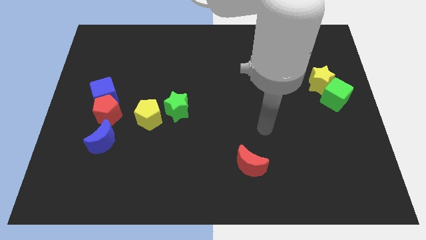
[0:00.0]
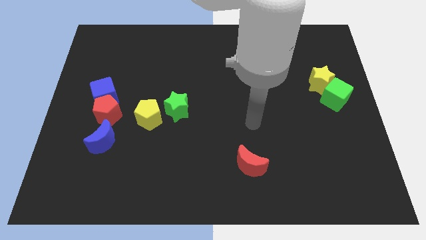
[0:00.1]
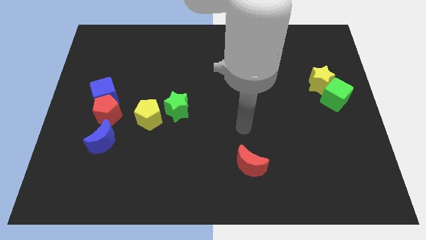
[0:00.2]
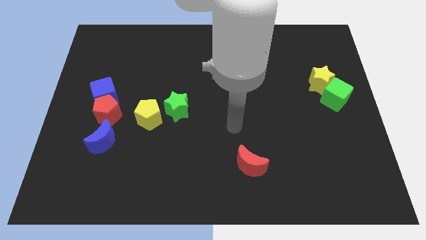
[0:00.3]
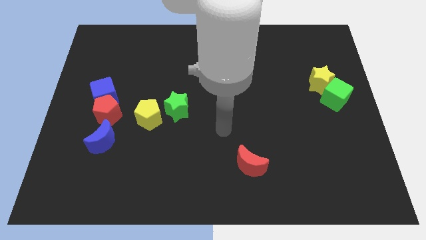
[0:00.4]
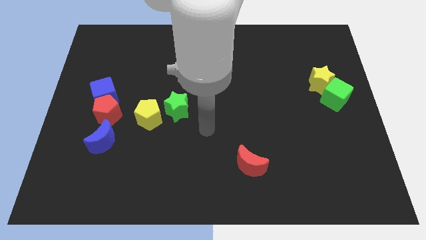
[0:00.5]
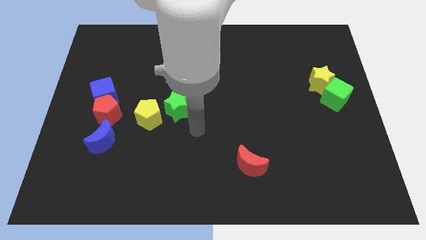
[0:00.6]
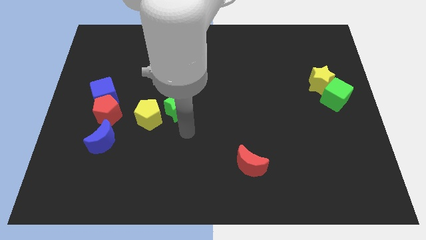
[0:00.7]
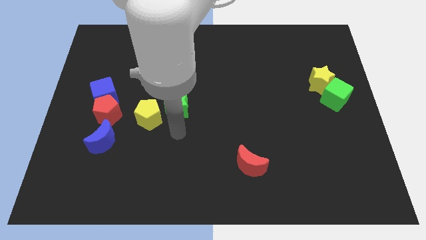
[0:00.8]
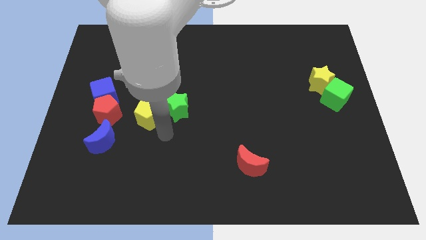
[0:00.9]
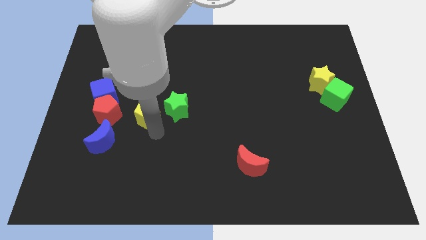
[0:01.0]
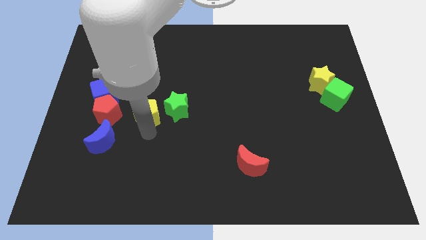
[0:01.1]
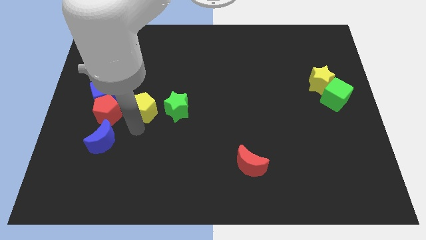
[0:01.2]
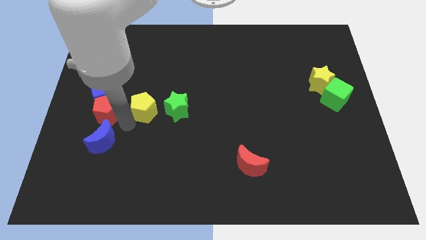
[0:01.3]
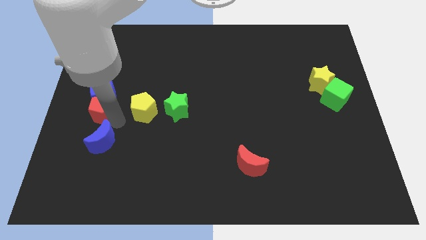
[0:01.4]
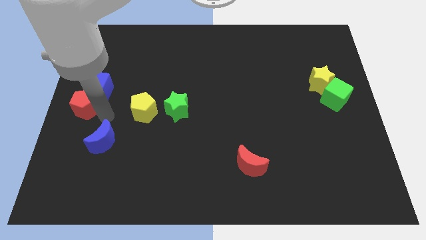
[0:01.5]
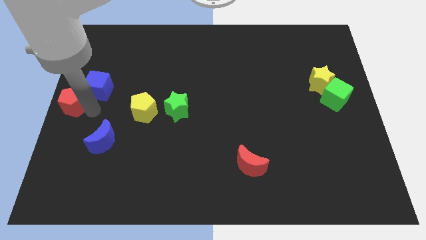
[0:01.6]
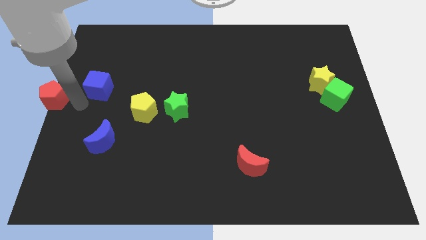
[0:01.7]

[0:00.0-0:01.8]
pull the blue cube apart from the red pentagon

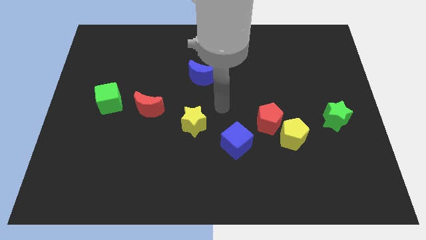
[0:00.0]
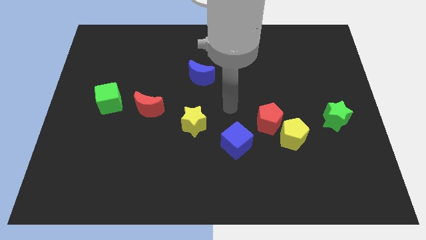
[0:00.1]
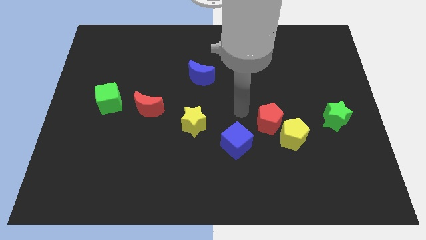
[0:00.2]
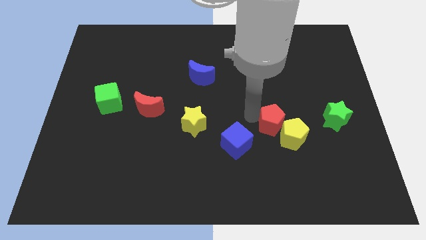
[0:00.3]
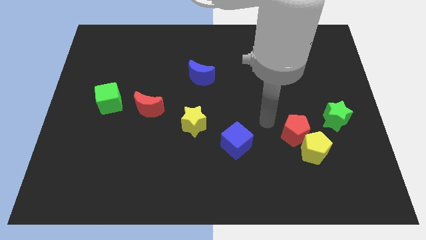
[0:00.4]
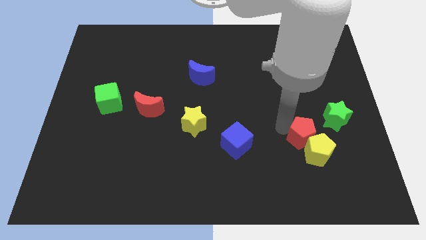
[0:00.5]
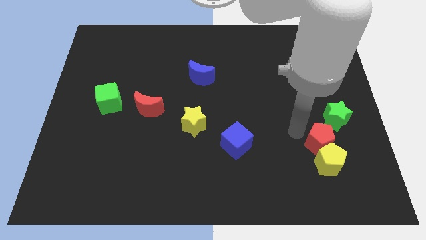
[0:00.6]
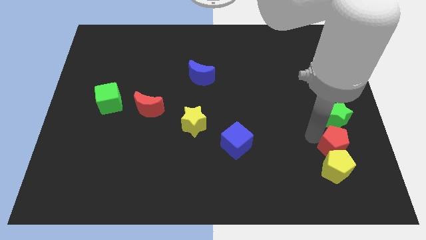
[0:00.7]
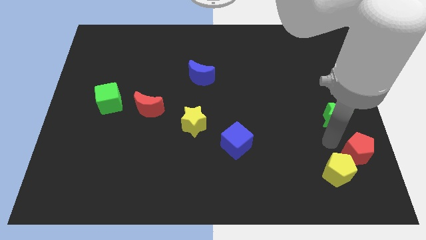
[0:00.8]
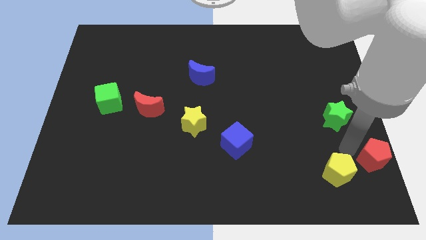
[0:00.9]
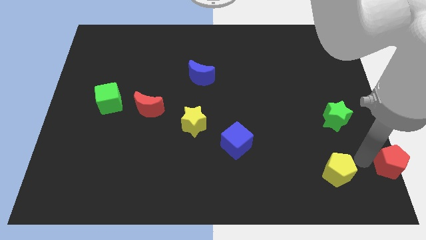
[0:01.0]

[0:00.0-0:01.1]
pull the yellow pentagon apart from the red pentagon

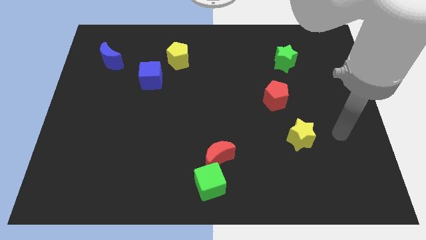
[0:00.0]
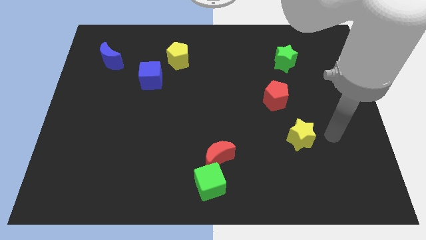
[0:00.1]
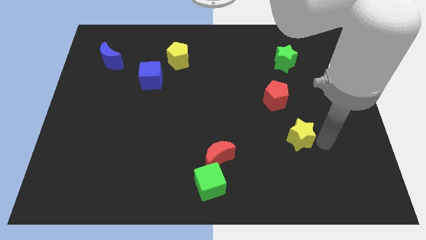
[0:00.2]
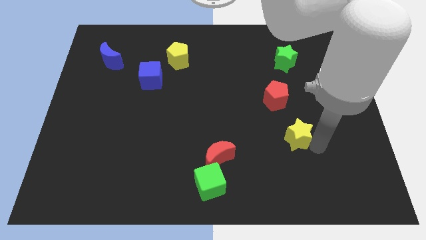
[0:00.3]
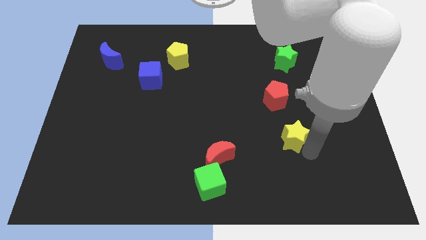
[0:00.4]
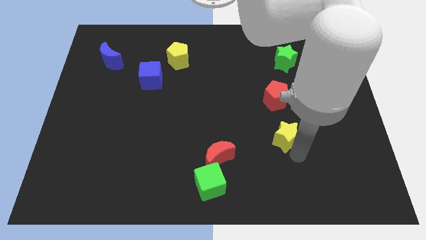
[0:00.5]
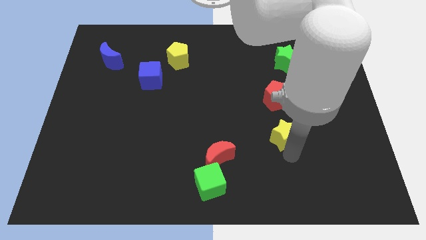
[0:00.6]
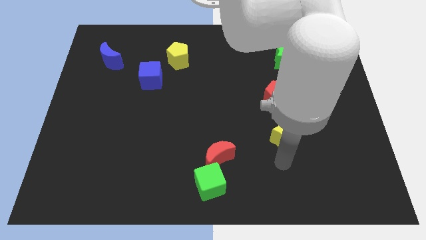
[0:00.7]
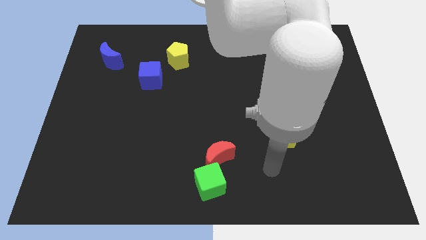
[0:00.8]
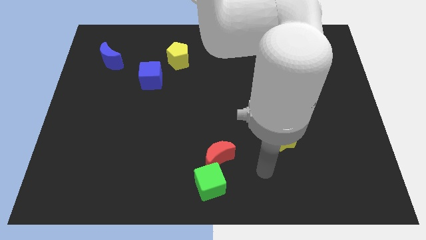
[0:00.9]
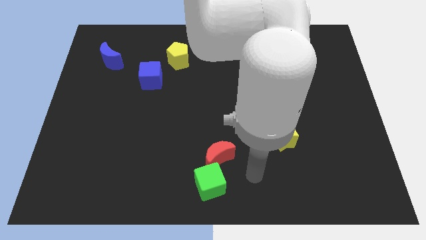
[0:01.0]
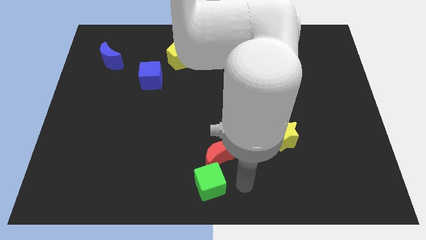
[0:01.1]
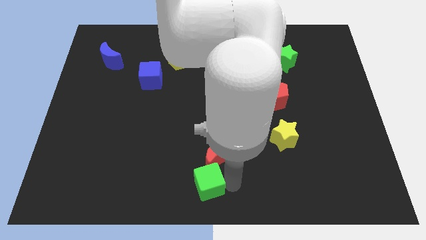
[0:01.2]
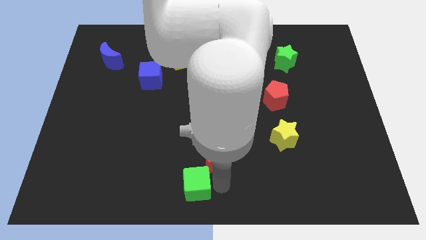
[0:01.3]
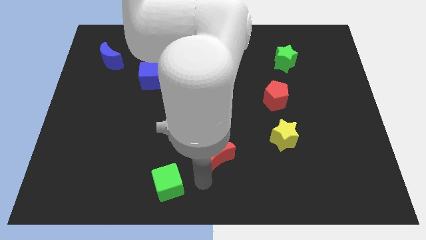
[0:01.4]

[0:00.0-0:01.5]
pull the red moon apart from the green cube

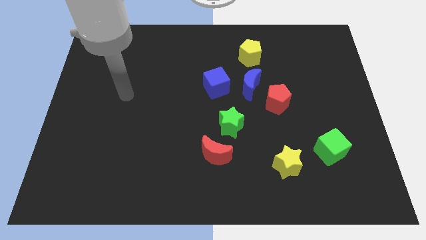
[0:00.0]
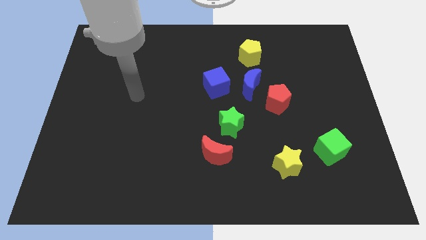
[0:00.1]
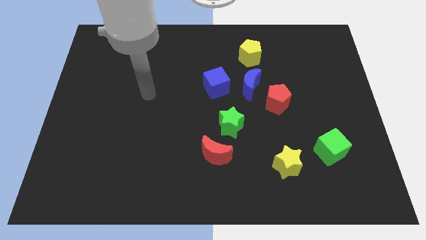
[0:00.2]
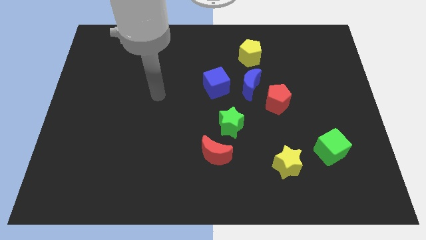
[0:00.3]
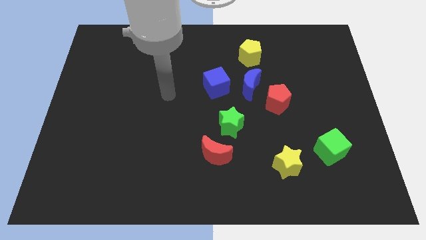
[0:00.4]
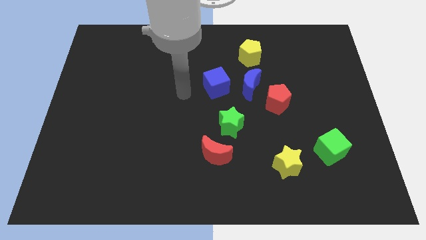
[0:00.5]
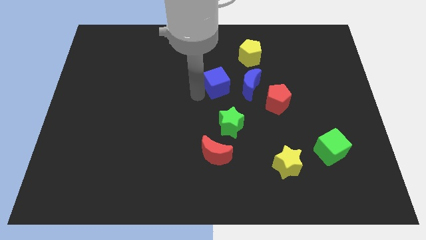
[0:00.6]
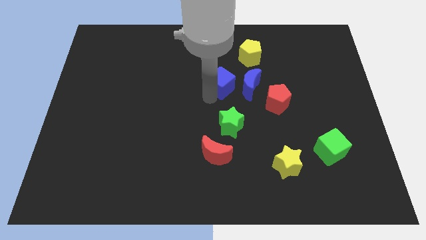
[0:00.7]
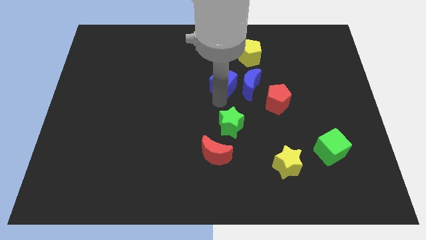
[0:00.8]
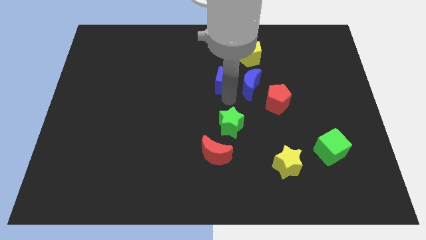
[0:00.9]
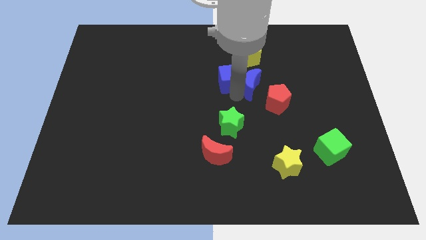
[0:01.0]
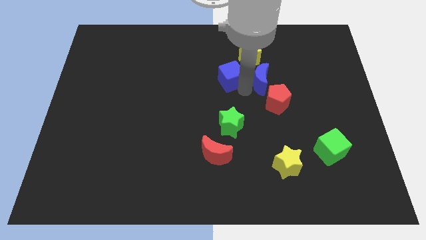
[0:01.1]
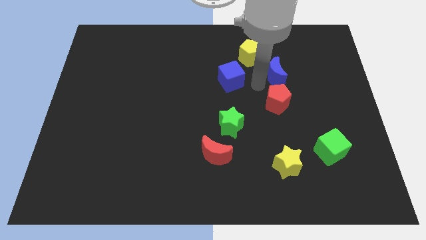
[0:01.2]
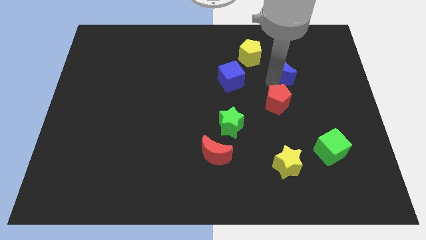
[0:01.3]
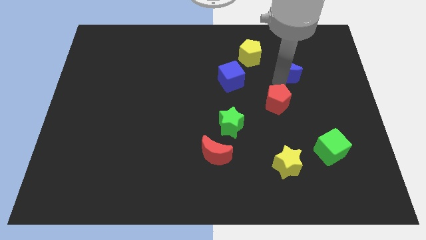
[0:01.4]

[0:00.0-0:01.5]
separate the red pentagon from the blue moon

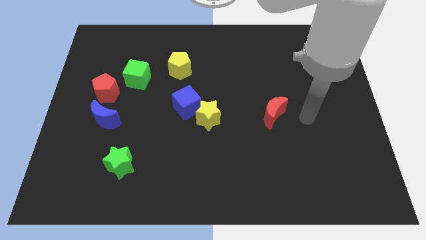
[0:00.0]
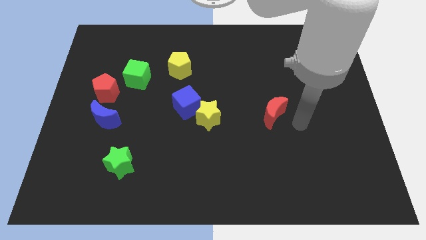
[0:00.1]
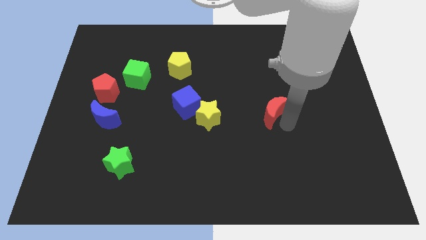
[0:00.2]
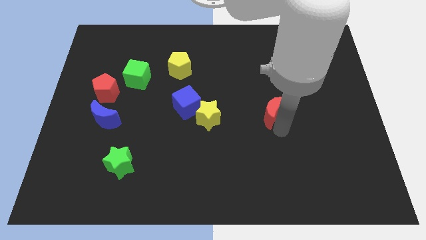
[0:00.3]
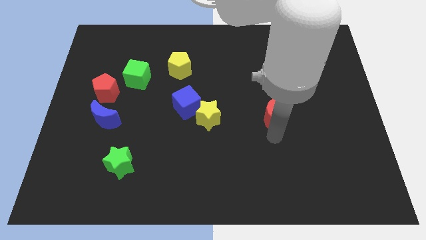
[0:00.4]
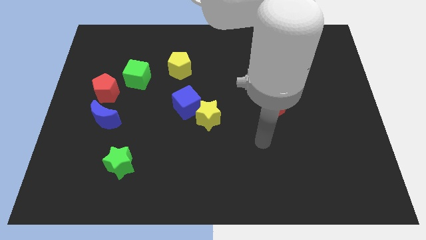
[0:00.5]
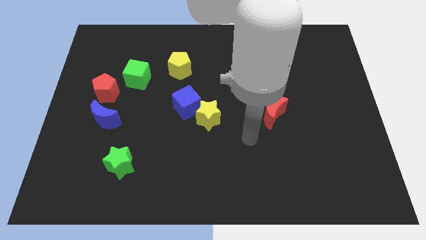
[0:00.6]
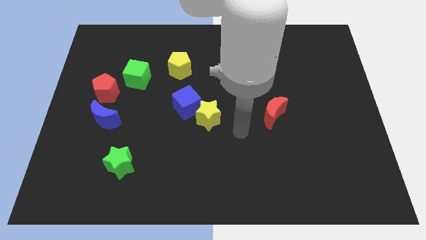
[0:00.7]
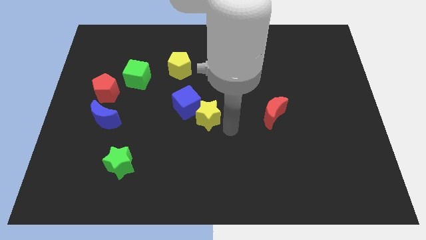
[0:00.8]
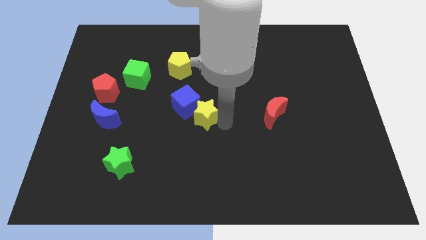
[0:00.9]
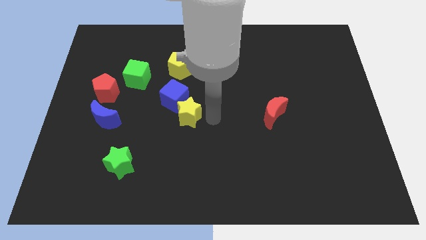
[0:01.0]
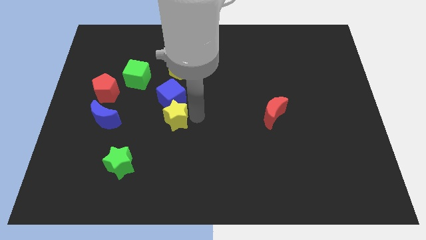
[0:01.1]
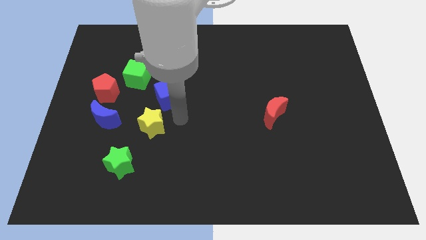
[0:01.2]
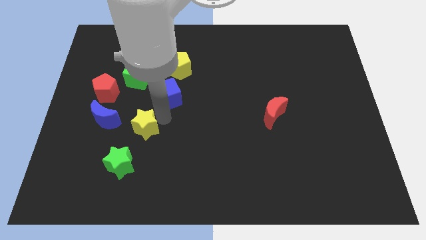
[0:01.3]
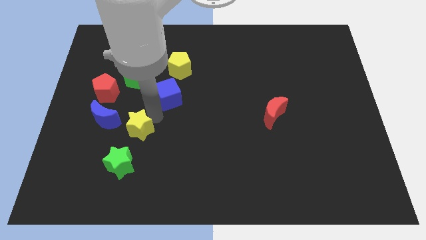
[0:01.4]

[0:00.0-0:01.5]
separate the blue cube from the yellow star

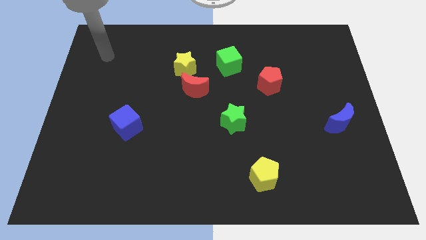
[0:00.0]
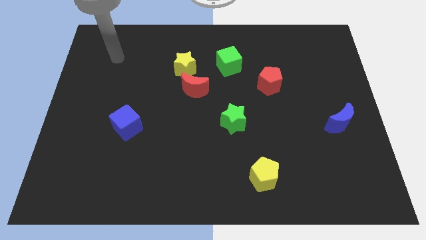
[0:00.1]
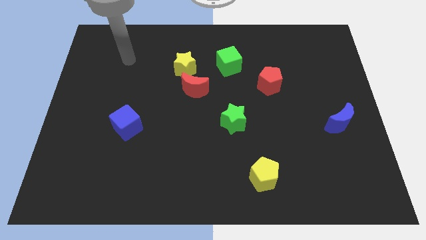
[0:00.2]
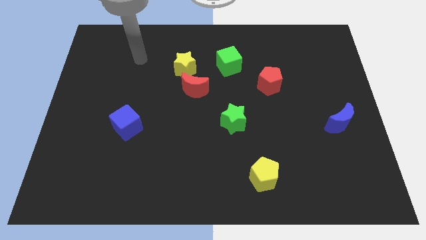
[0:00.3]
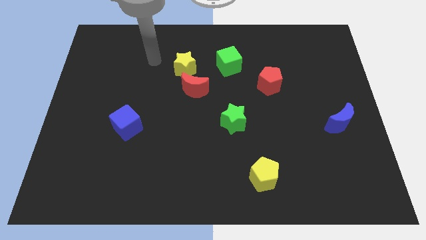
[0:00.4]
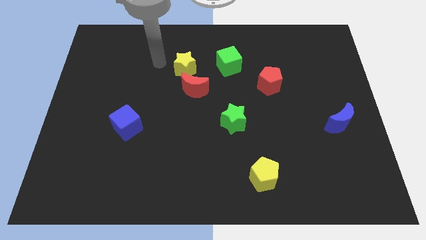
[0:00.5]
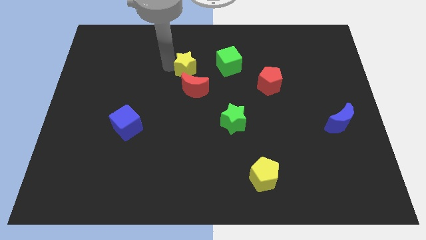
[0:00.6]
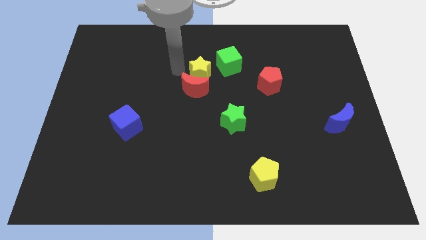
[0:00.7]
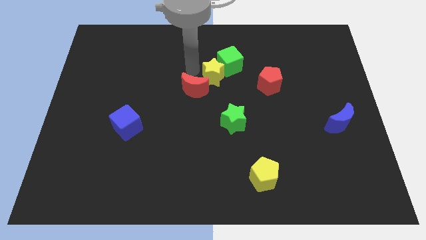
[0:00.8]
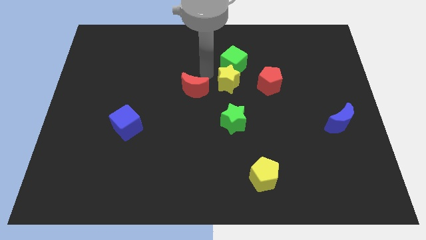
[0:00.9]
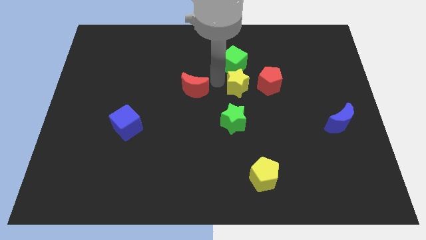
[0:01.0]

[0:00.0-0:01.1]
separate the red moon from the yellow star

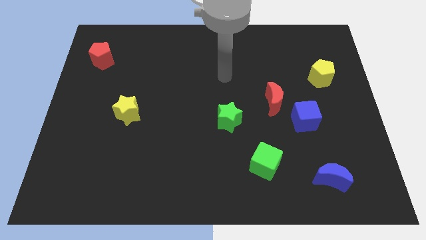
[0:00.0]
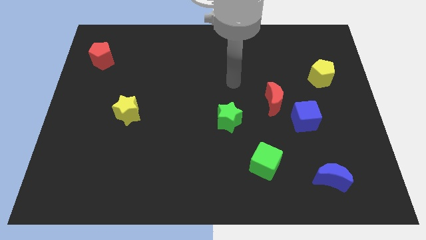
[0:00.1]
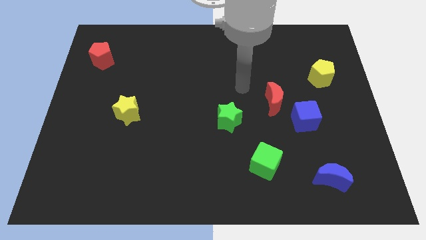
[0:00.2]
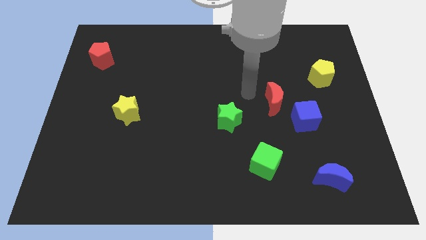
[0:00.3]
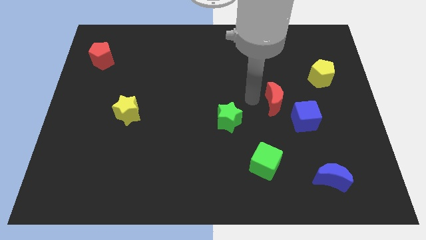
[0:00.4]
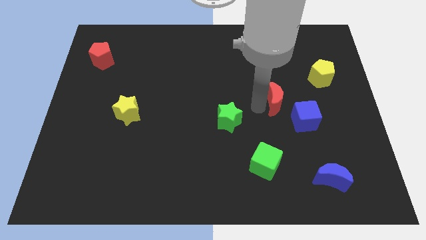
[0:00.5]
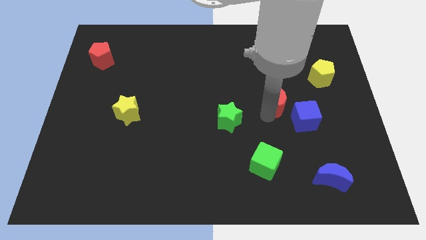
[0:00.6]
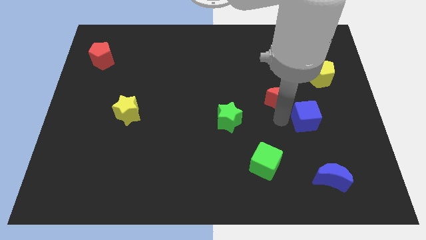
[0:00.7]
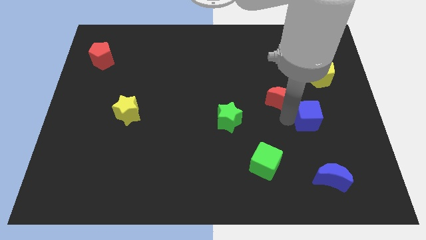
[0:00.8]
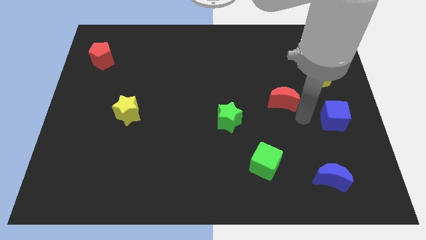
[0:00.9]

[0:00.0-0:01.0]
separate the red moon from the blue cube
